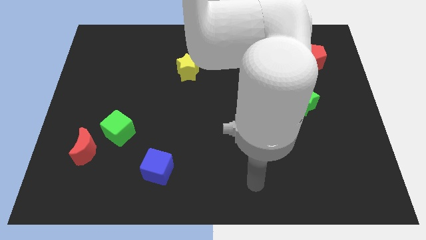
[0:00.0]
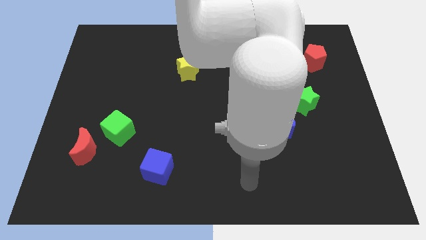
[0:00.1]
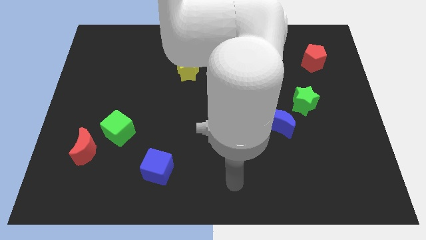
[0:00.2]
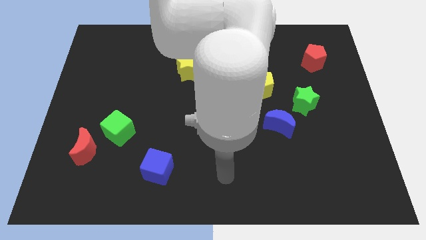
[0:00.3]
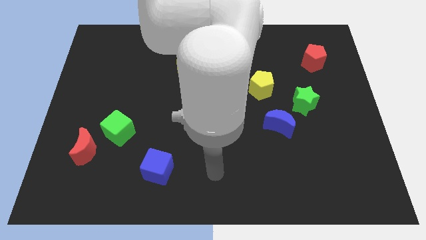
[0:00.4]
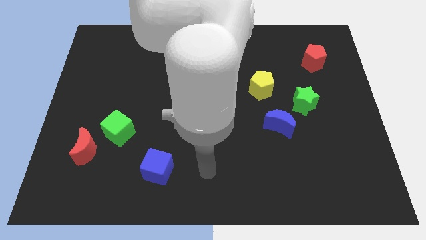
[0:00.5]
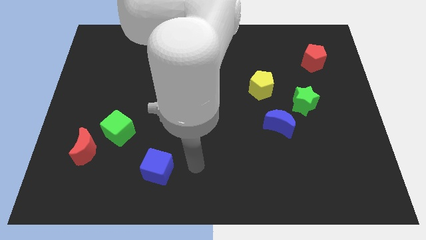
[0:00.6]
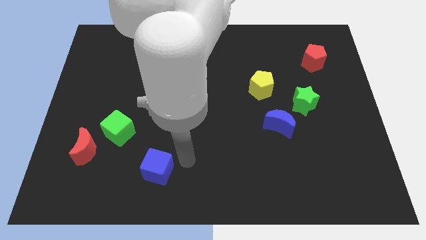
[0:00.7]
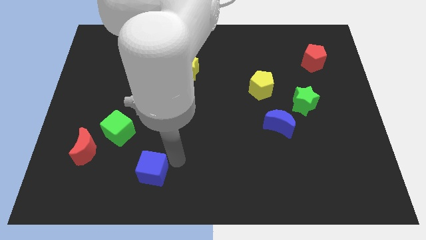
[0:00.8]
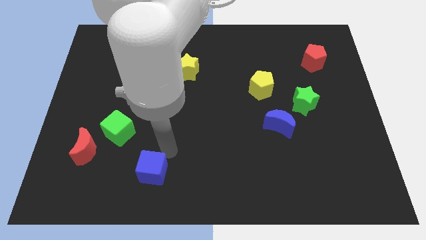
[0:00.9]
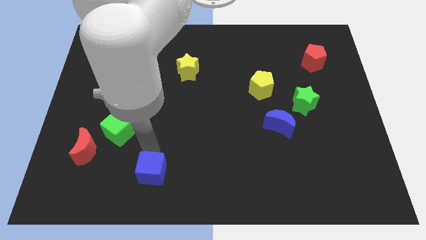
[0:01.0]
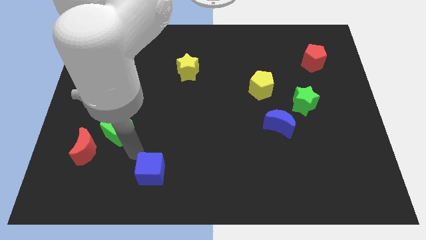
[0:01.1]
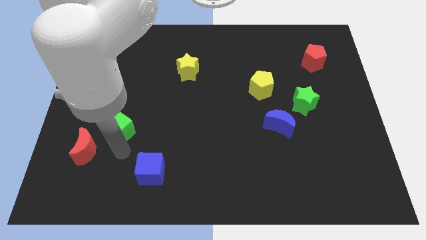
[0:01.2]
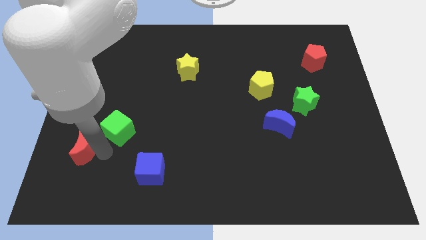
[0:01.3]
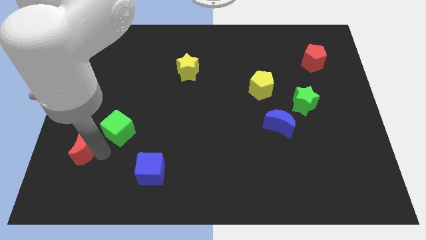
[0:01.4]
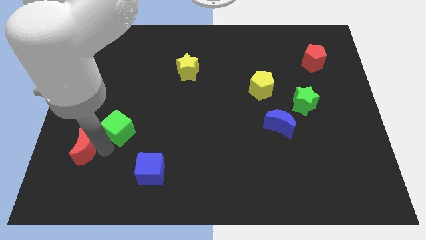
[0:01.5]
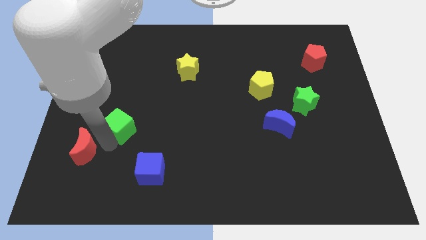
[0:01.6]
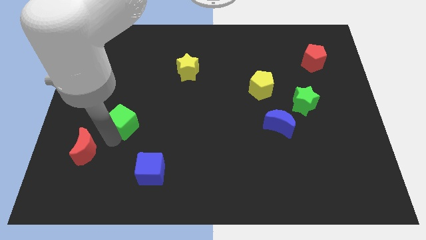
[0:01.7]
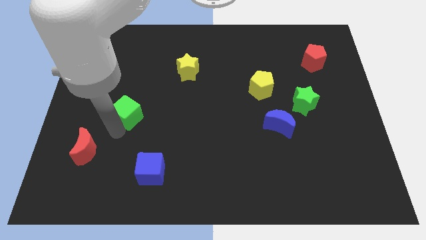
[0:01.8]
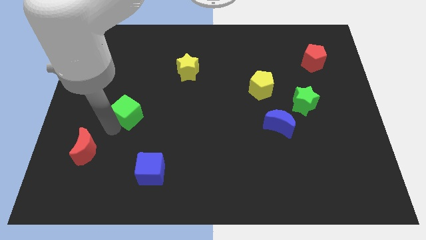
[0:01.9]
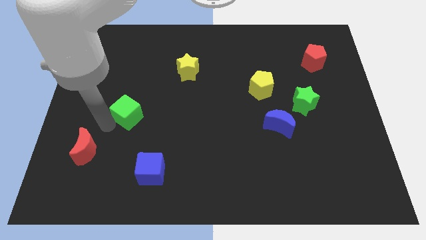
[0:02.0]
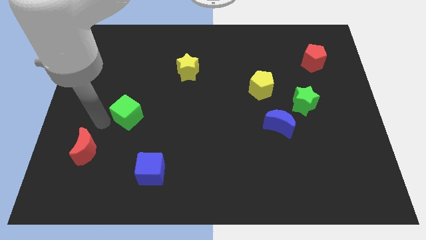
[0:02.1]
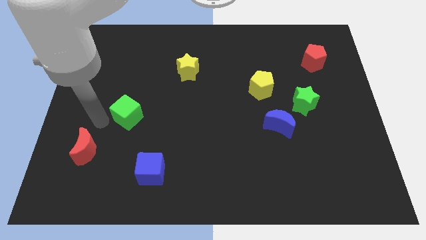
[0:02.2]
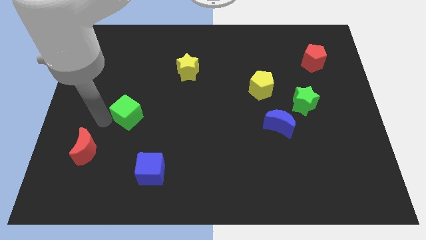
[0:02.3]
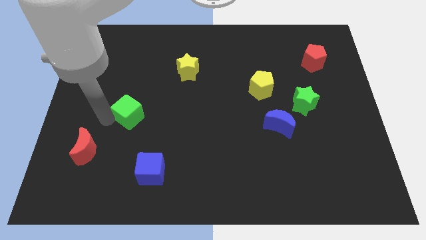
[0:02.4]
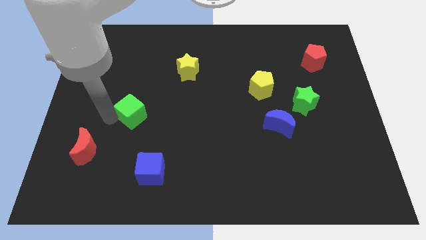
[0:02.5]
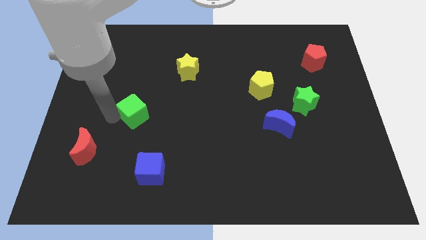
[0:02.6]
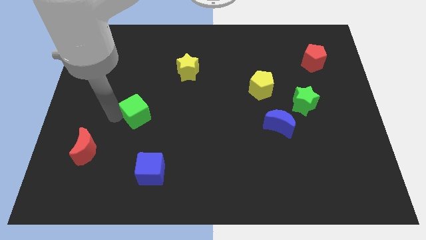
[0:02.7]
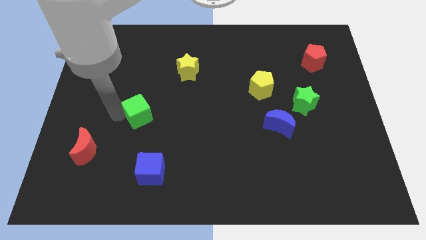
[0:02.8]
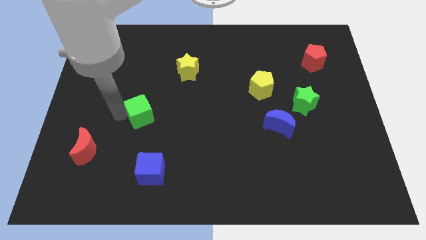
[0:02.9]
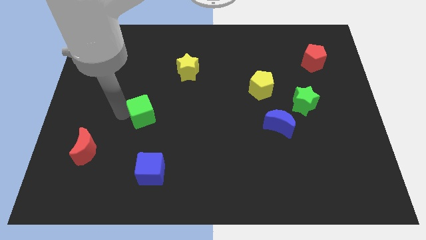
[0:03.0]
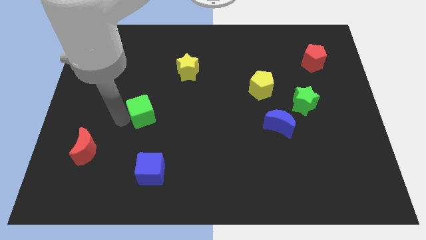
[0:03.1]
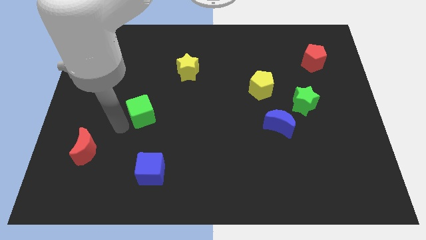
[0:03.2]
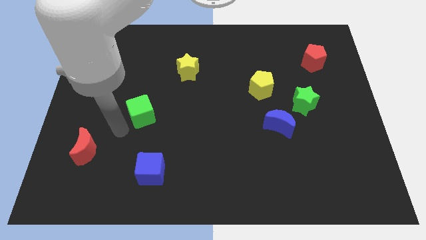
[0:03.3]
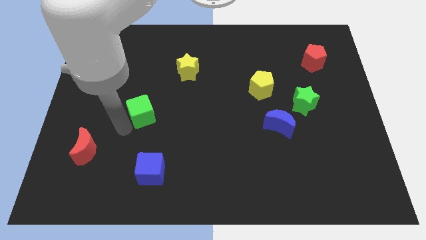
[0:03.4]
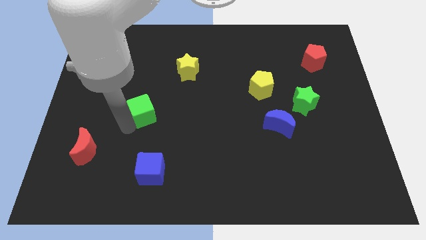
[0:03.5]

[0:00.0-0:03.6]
slightly move the green cube up and then to the right

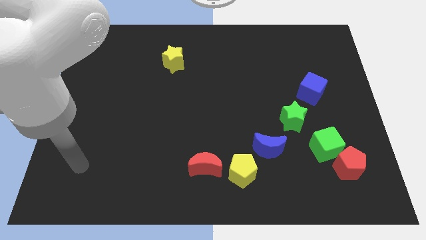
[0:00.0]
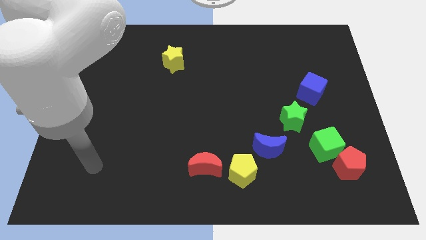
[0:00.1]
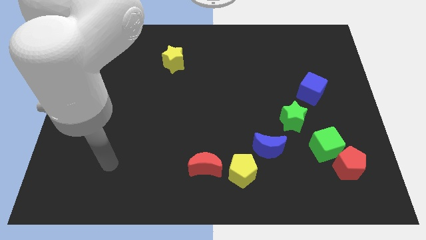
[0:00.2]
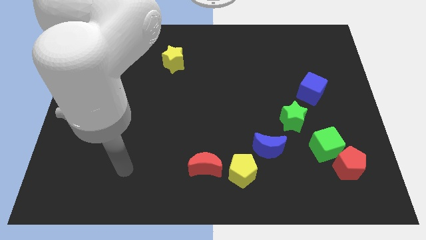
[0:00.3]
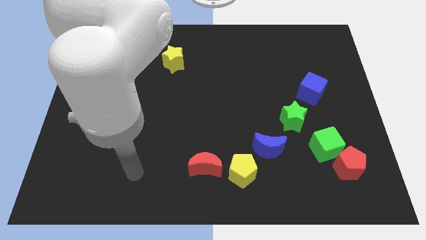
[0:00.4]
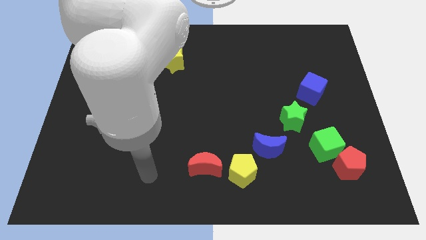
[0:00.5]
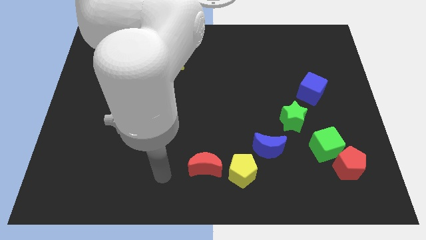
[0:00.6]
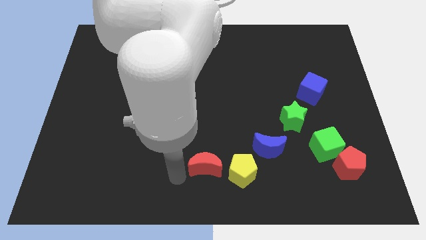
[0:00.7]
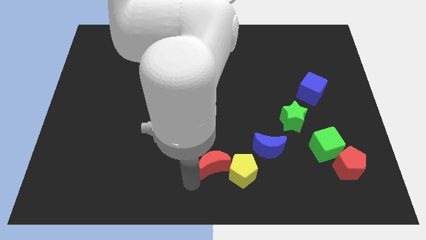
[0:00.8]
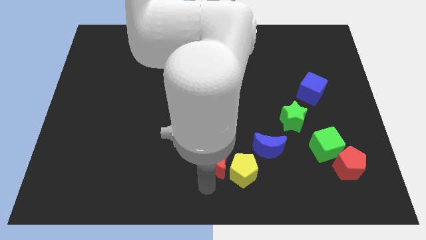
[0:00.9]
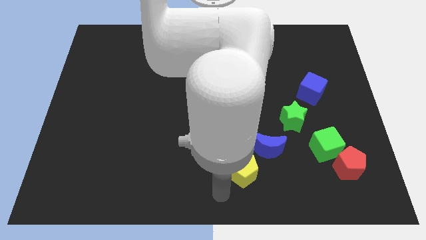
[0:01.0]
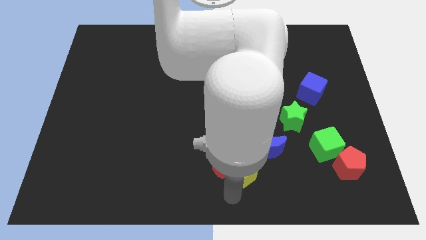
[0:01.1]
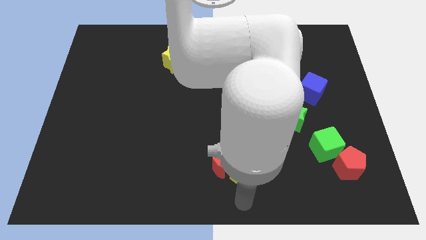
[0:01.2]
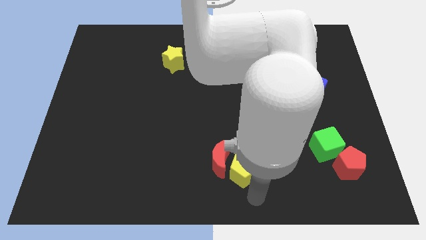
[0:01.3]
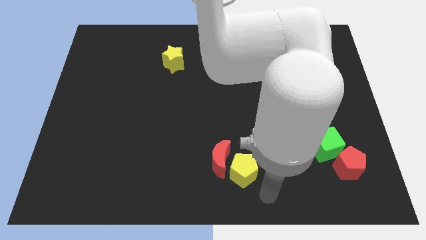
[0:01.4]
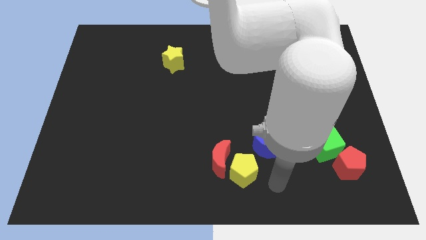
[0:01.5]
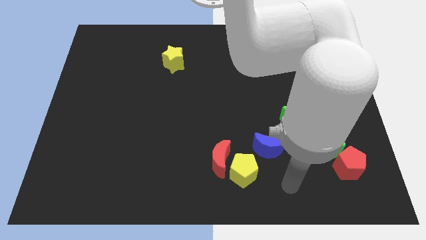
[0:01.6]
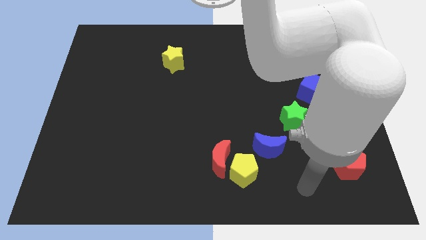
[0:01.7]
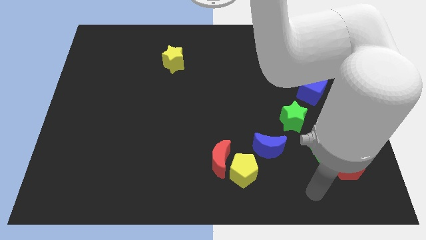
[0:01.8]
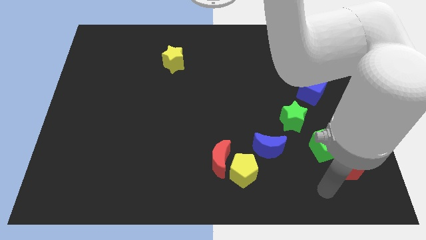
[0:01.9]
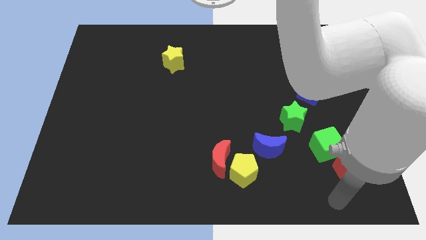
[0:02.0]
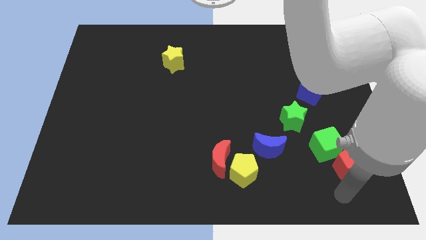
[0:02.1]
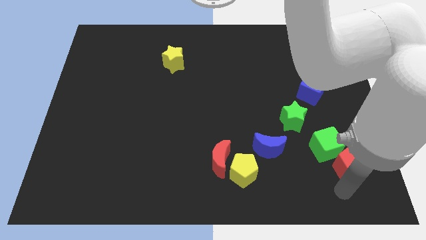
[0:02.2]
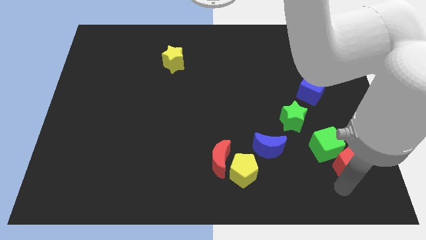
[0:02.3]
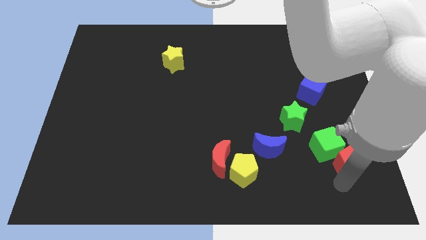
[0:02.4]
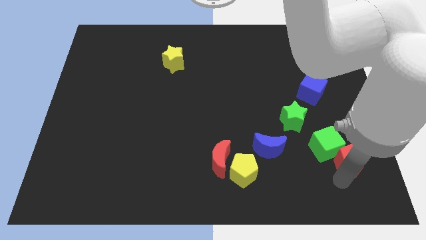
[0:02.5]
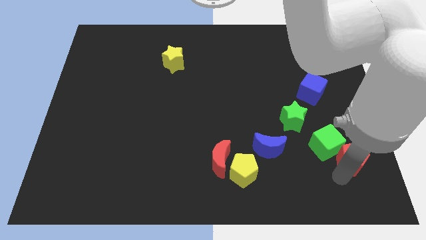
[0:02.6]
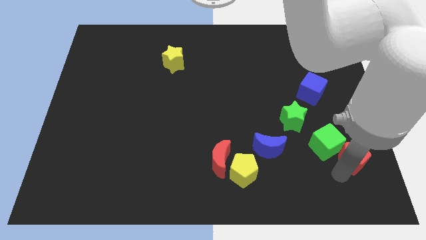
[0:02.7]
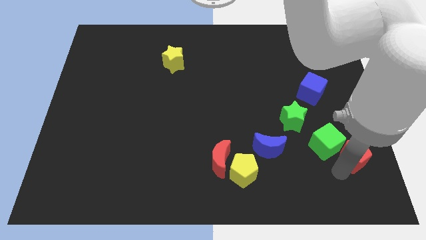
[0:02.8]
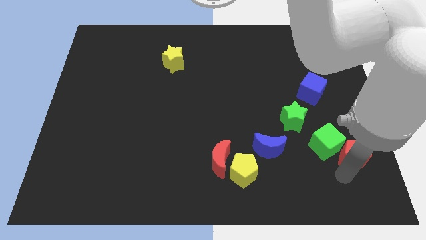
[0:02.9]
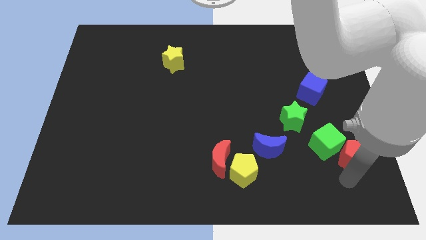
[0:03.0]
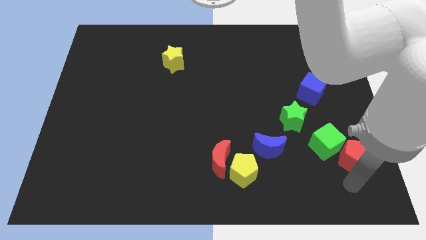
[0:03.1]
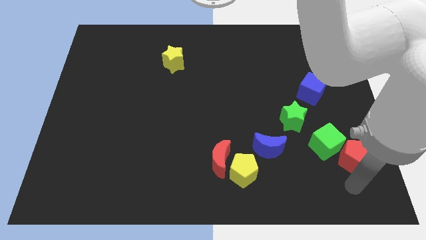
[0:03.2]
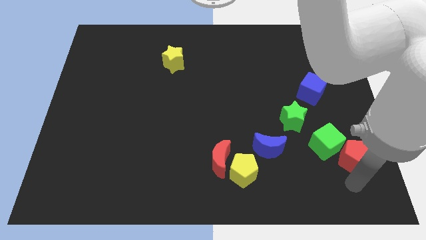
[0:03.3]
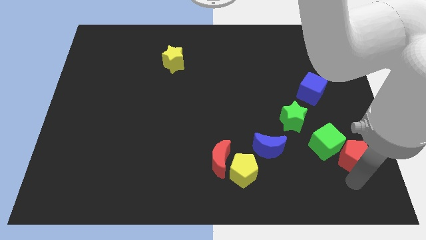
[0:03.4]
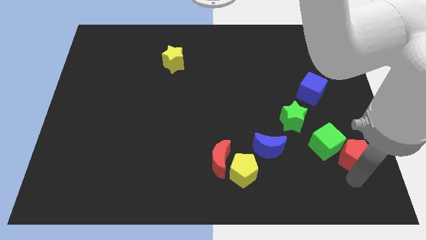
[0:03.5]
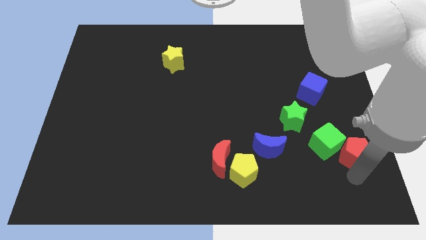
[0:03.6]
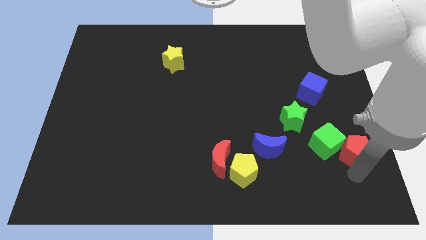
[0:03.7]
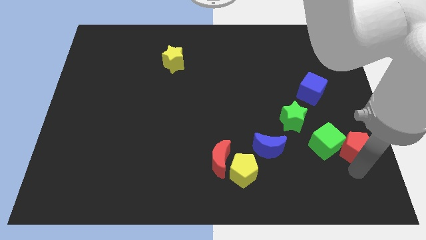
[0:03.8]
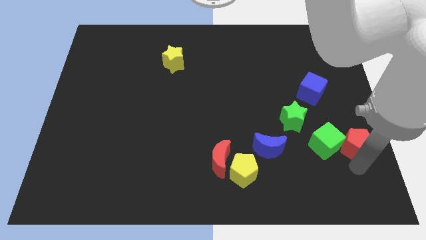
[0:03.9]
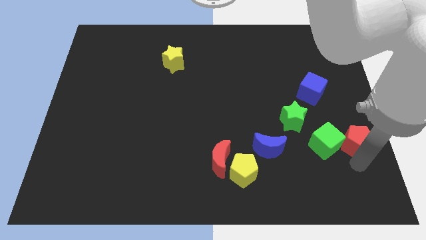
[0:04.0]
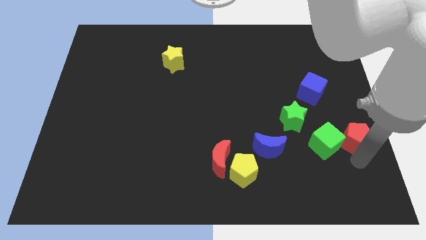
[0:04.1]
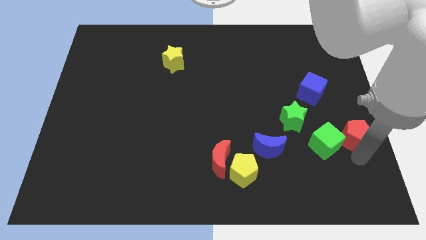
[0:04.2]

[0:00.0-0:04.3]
push the red pentagon a little bit up
